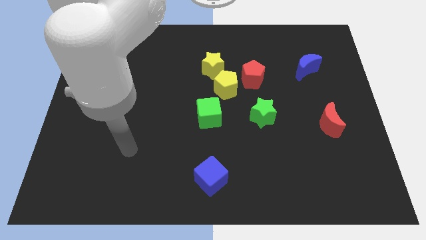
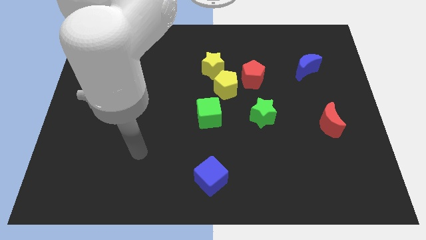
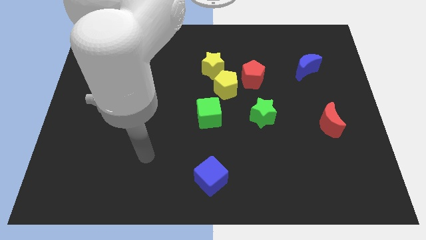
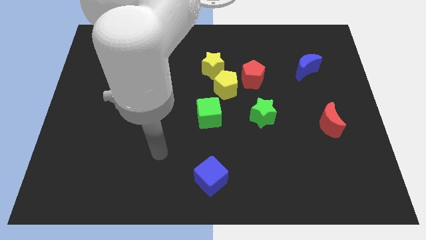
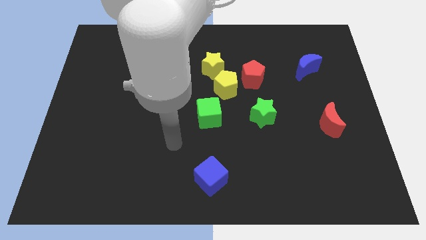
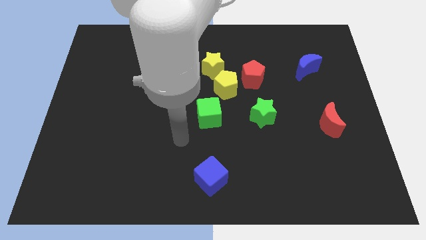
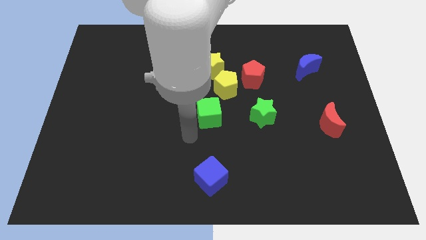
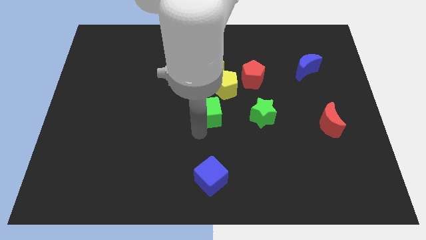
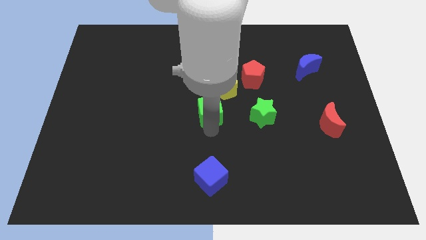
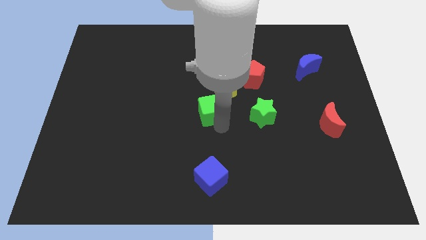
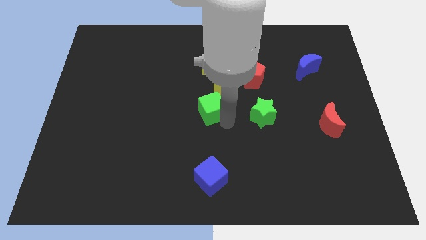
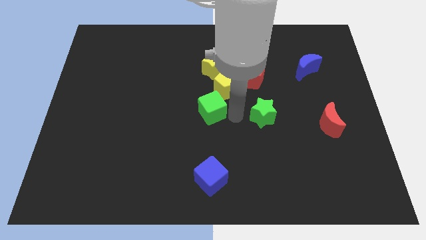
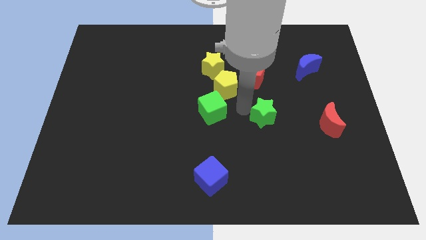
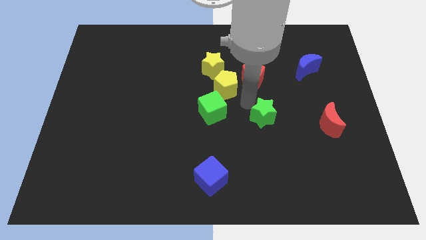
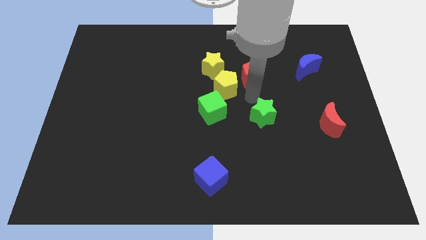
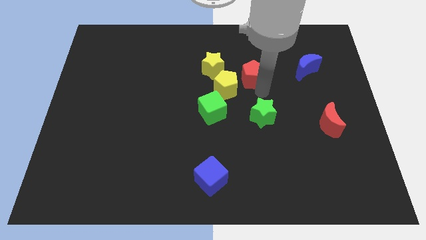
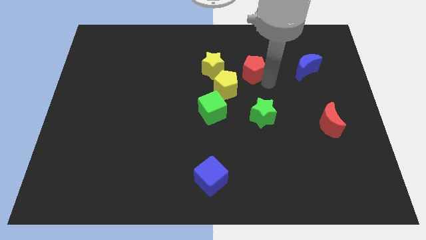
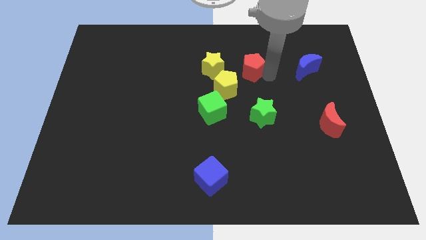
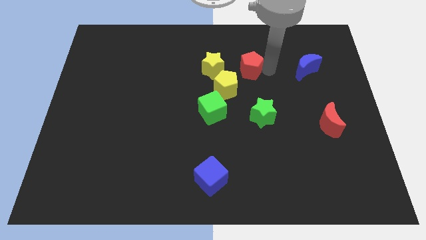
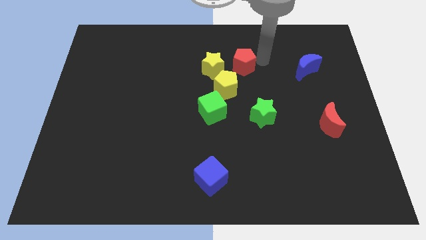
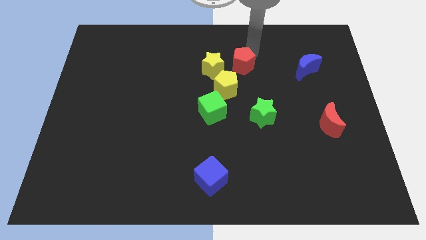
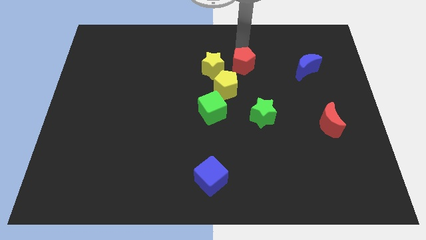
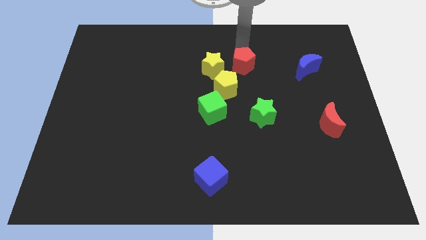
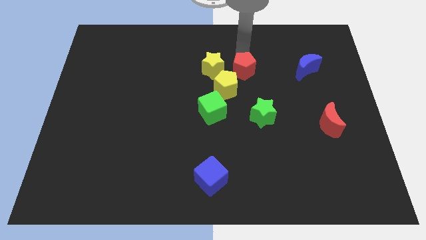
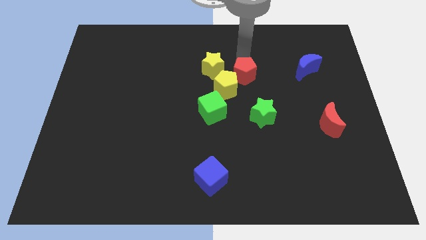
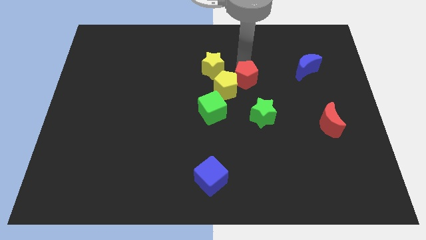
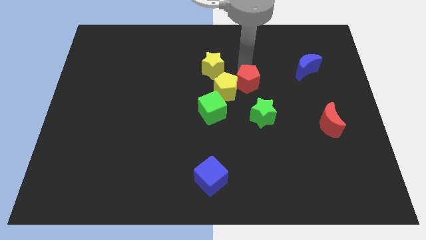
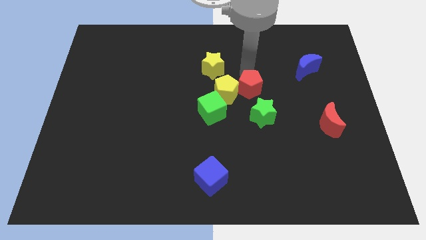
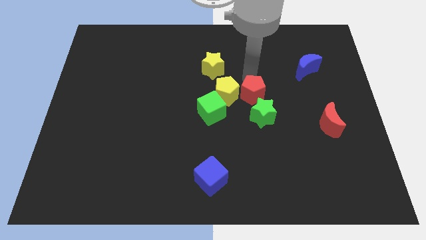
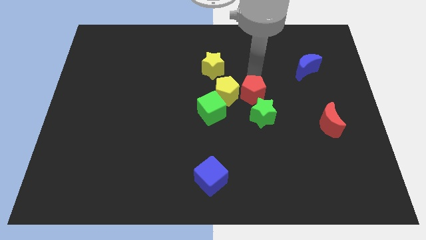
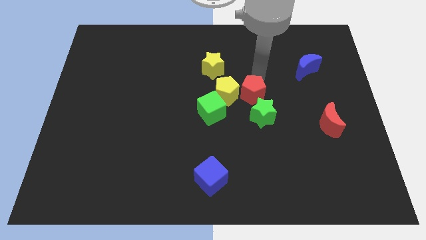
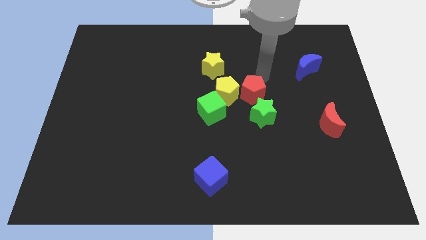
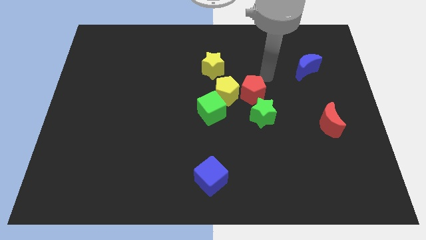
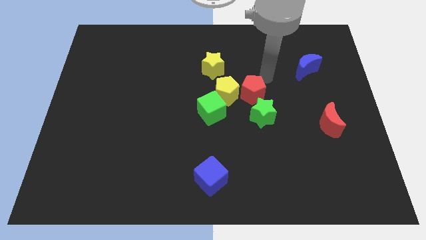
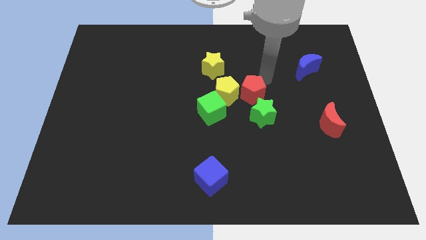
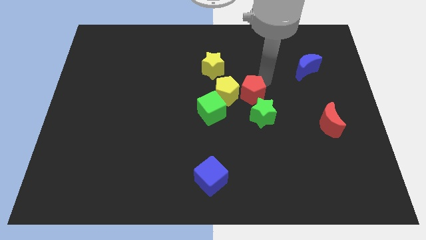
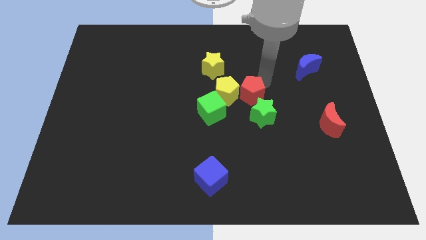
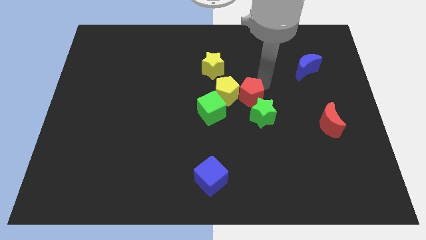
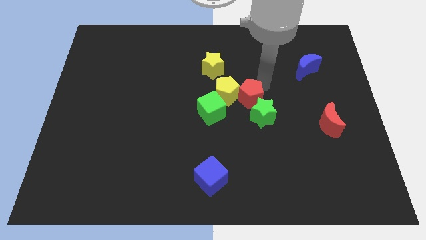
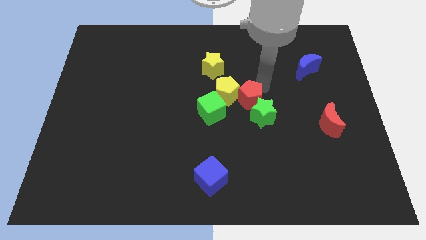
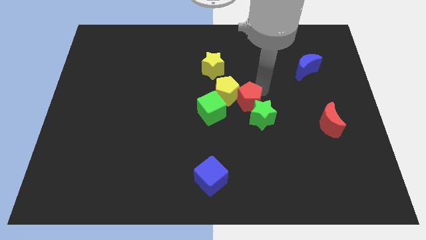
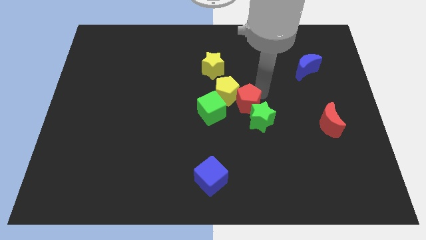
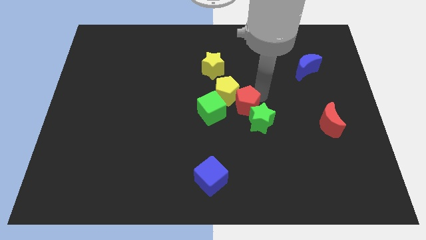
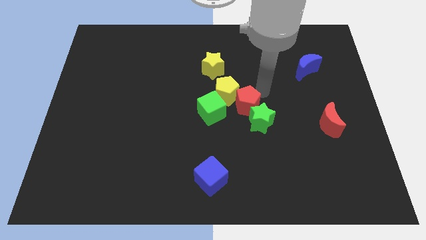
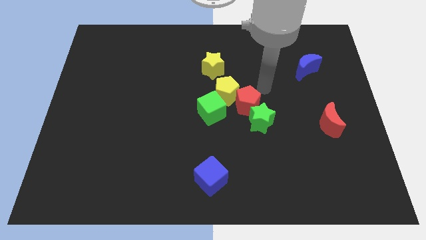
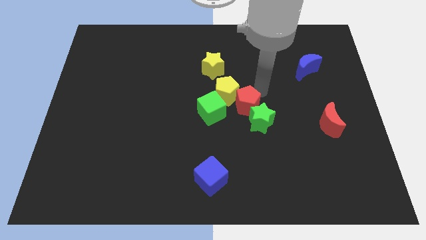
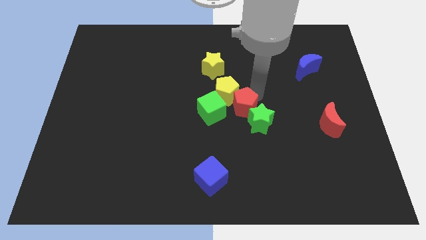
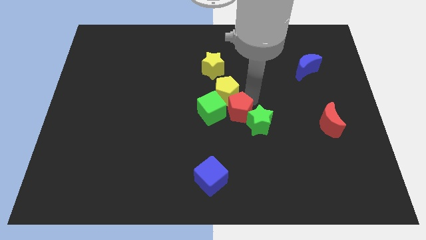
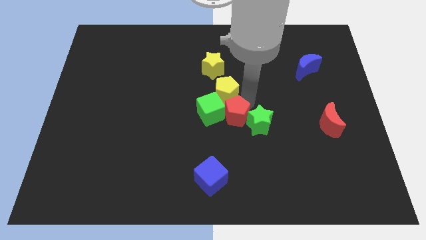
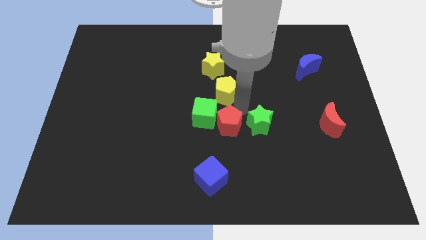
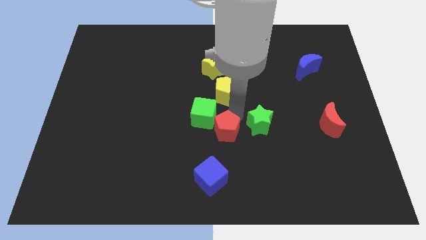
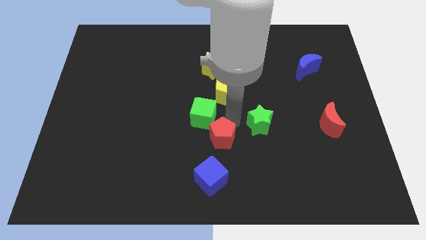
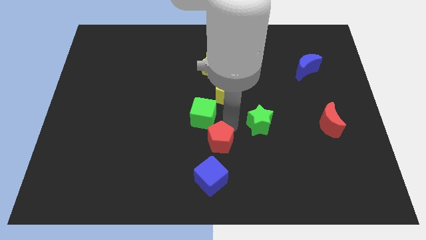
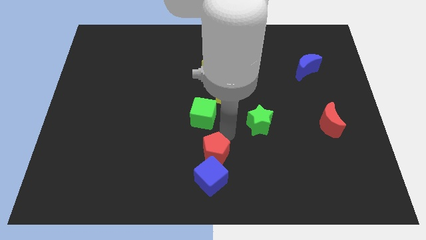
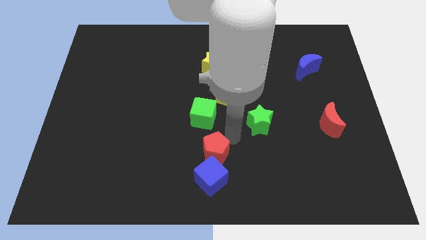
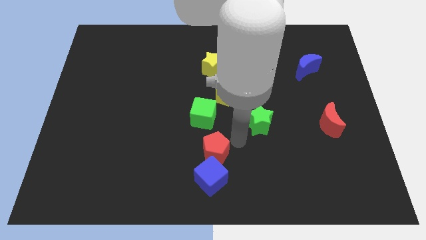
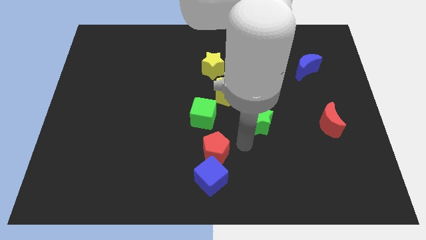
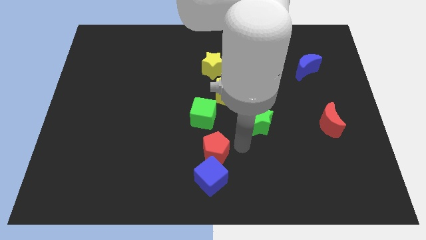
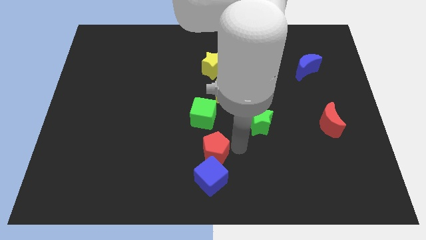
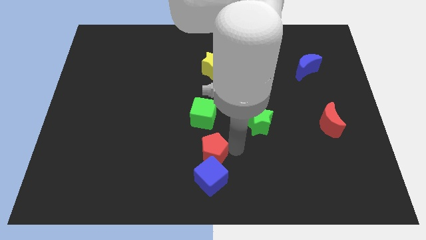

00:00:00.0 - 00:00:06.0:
move the red pentagon to the top left side of the blue cube

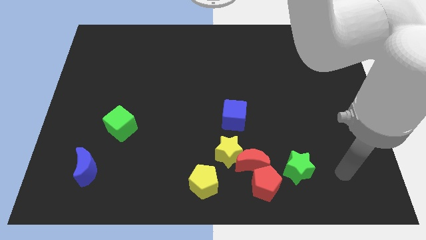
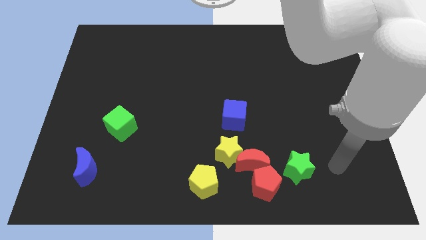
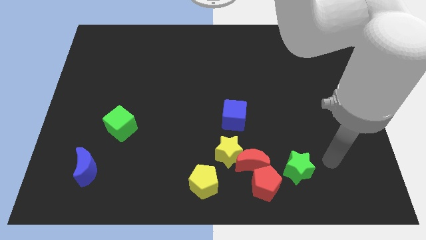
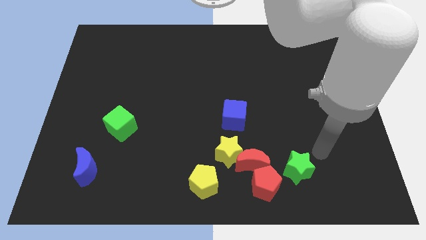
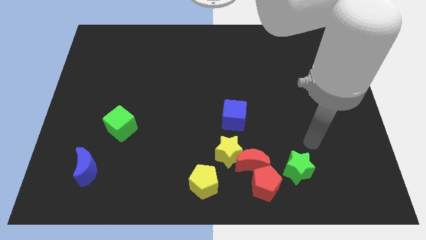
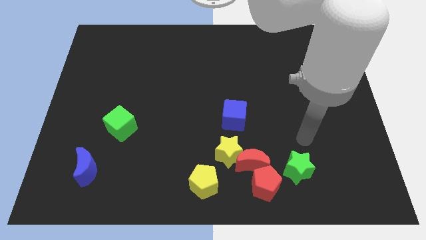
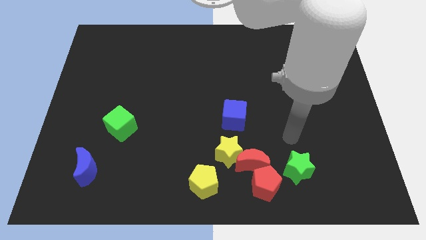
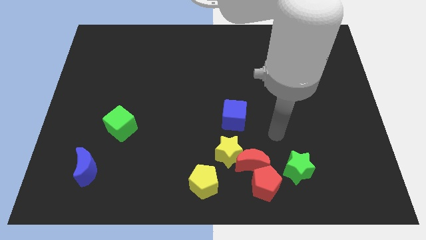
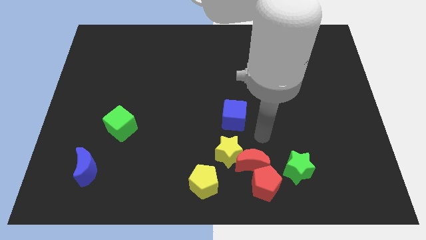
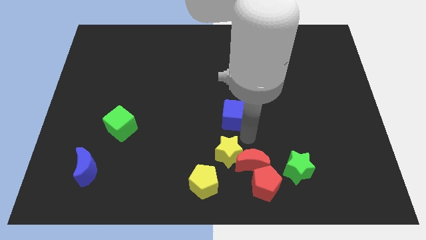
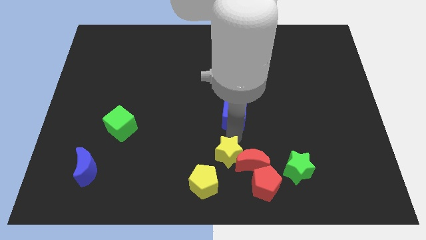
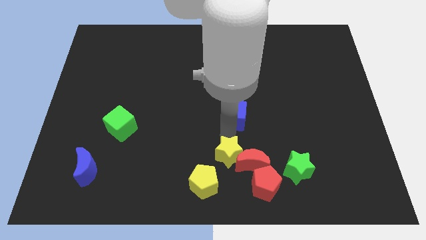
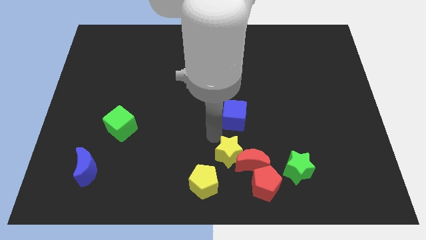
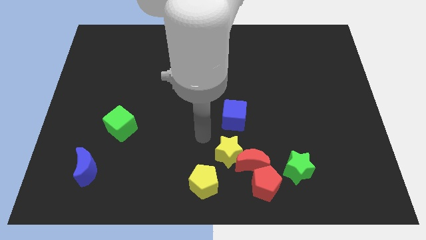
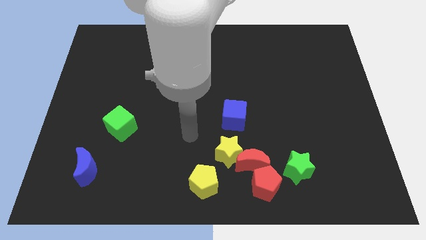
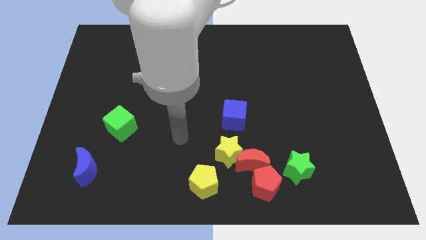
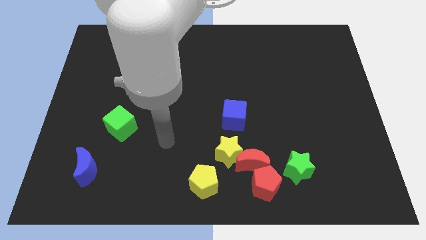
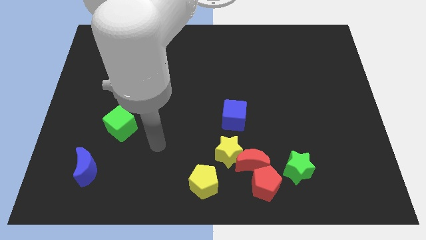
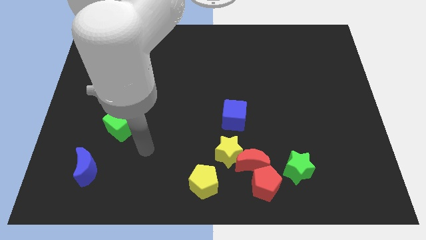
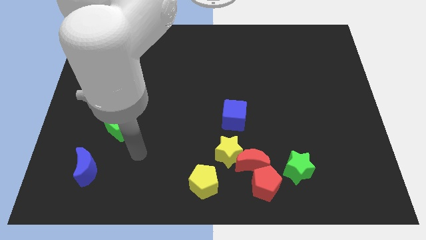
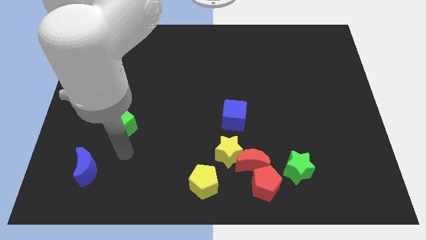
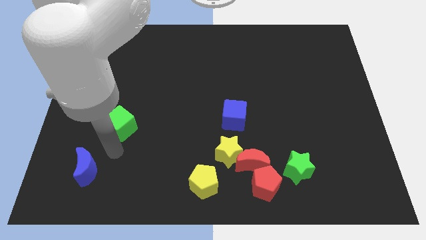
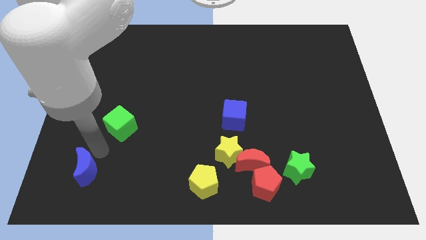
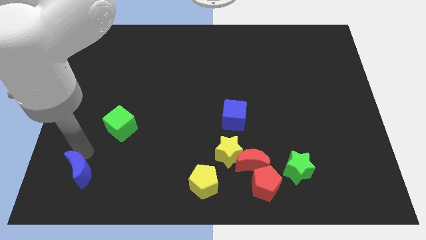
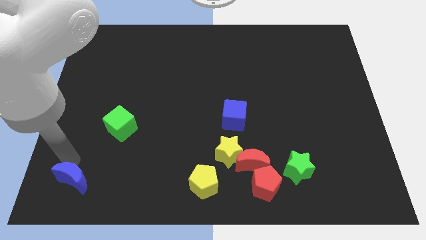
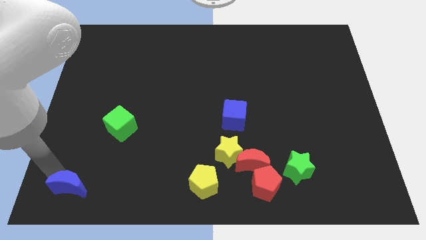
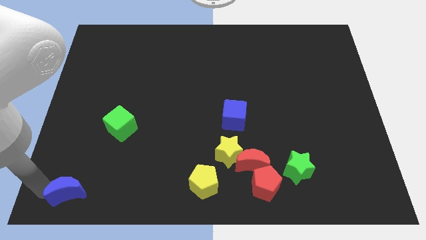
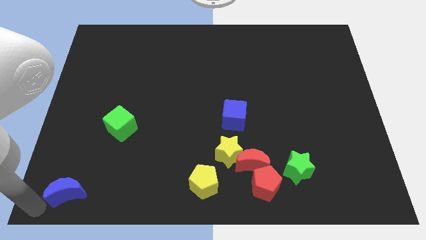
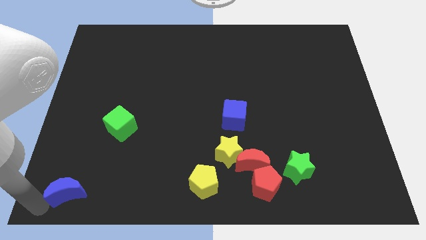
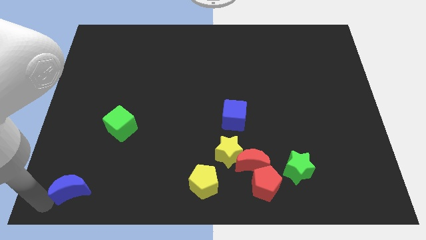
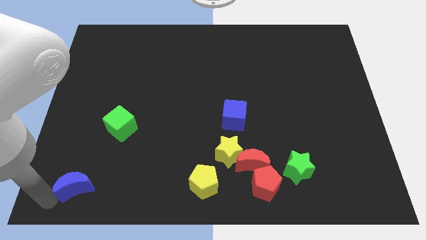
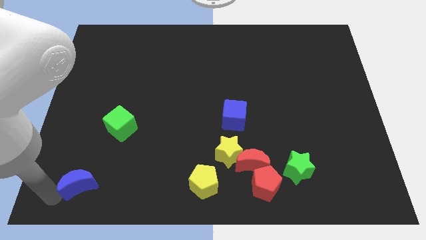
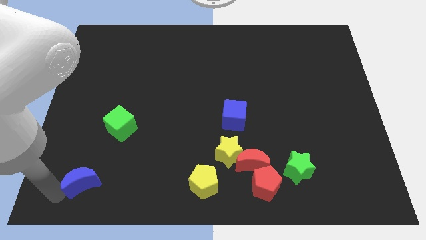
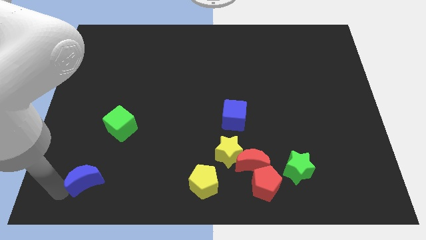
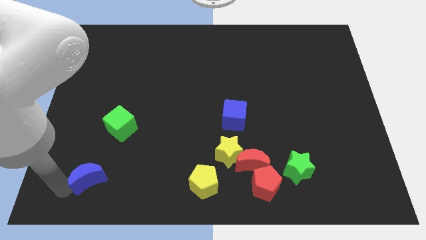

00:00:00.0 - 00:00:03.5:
push the blue moon to the bottom of the green cube
